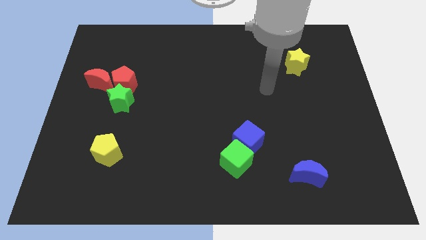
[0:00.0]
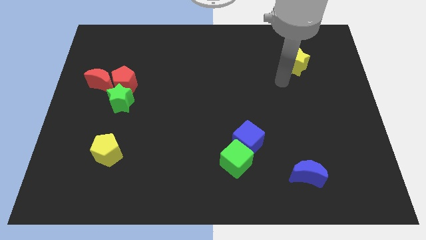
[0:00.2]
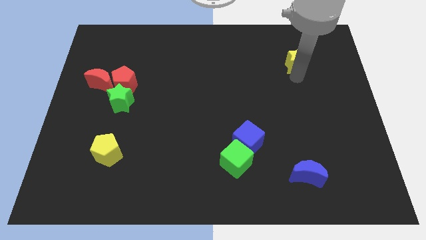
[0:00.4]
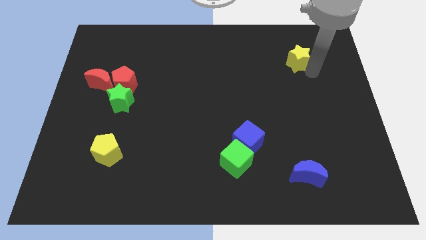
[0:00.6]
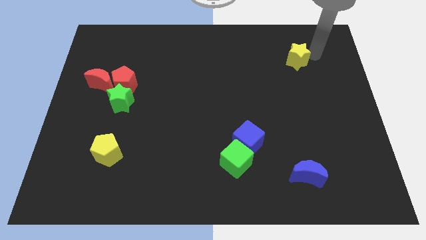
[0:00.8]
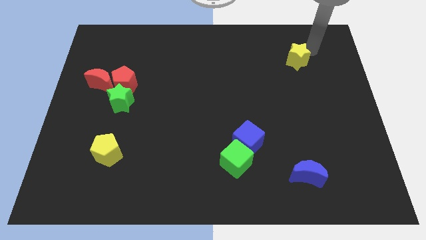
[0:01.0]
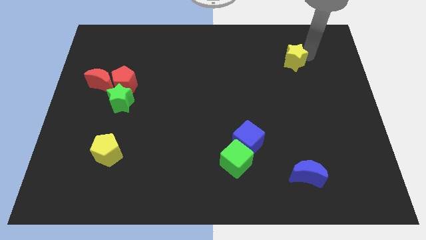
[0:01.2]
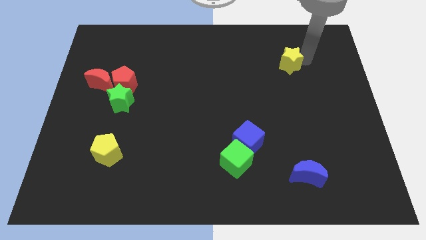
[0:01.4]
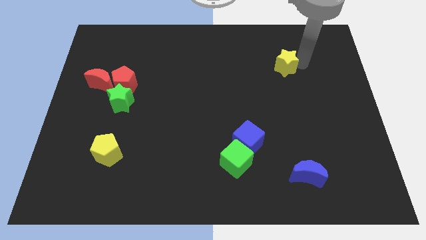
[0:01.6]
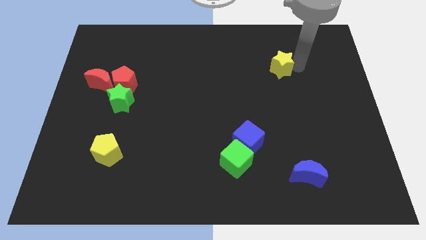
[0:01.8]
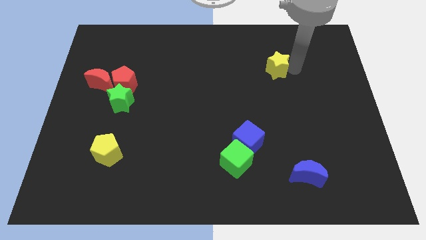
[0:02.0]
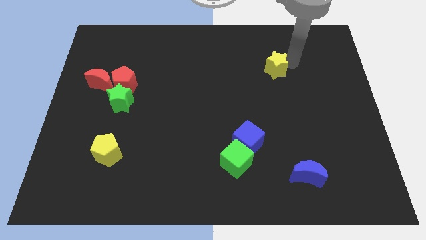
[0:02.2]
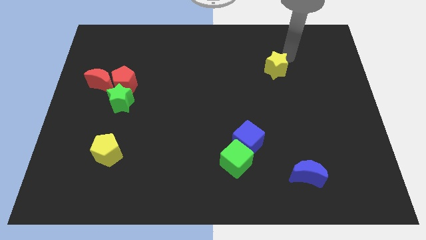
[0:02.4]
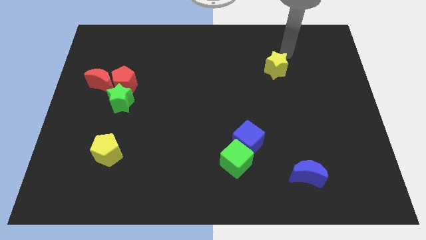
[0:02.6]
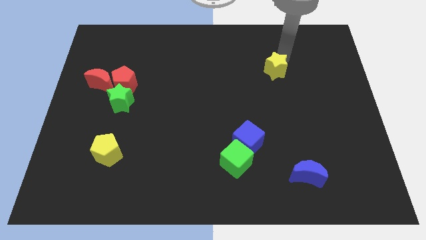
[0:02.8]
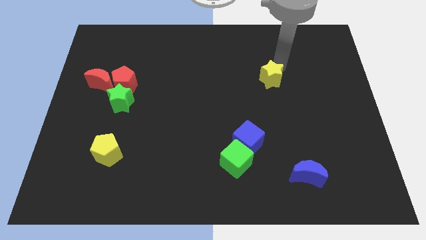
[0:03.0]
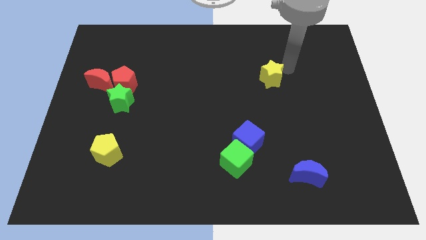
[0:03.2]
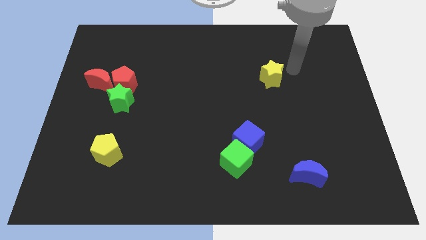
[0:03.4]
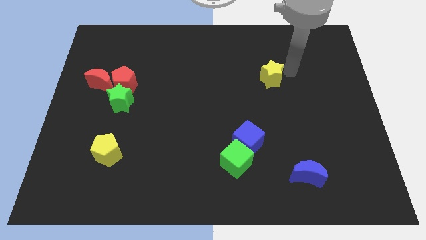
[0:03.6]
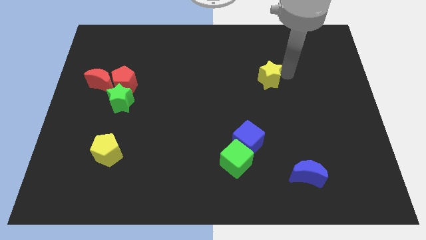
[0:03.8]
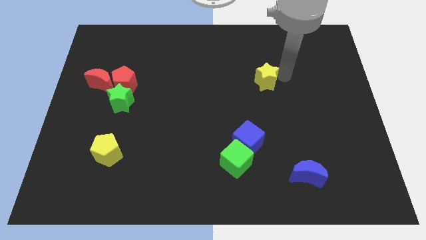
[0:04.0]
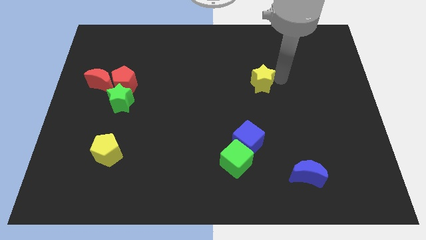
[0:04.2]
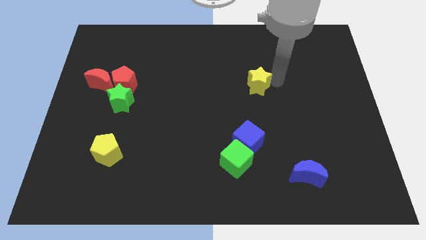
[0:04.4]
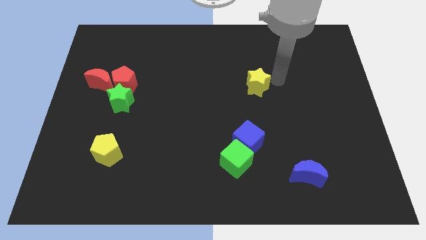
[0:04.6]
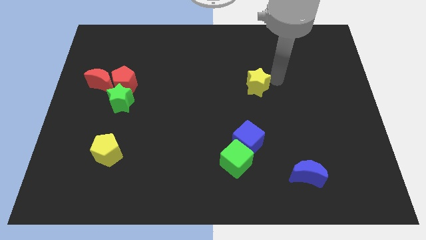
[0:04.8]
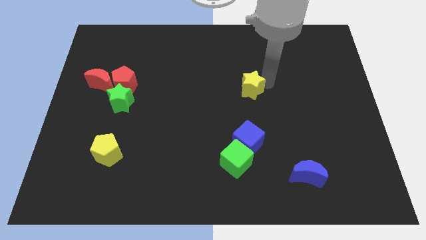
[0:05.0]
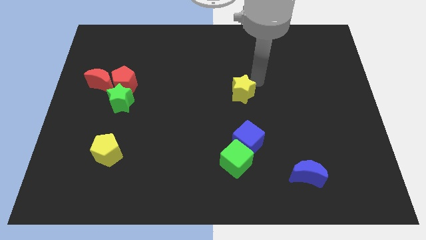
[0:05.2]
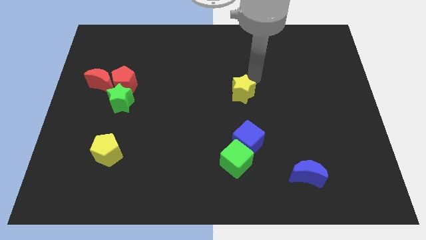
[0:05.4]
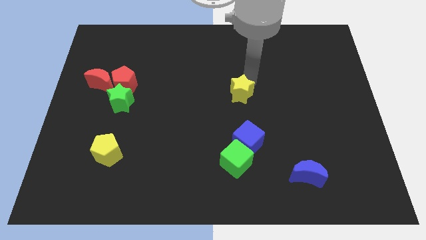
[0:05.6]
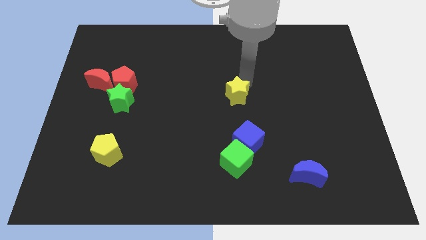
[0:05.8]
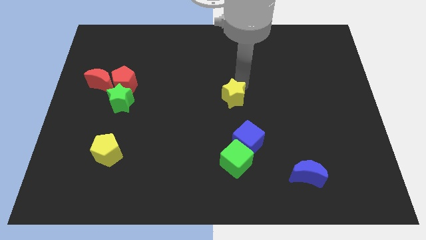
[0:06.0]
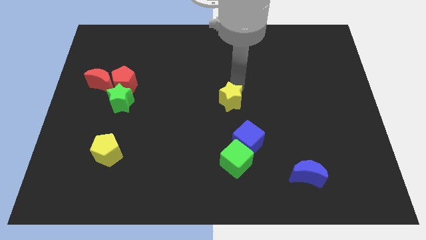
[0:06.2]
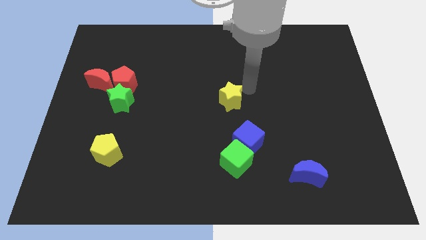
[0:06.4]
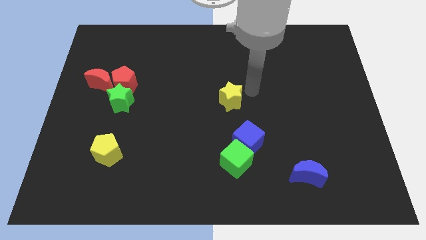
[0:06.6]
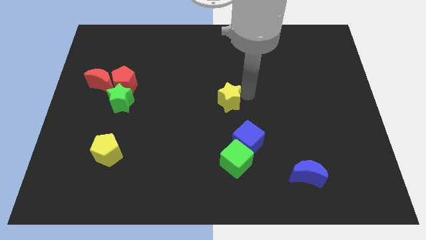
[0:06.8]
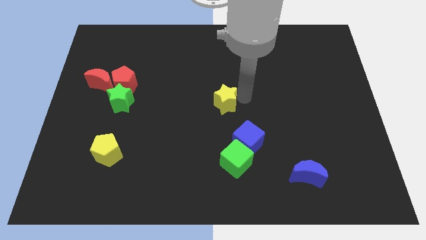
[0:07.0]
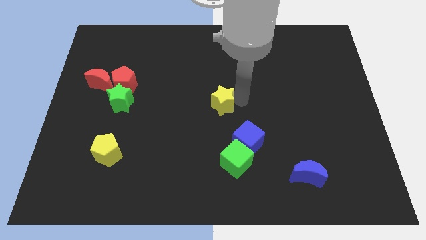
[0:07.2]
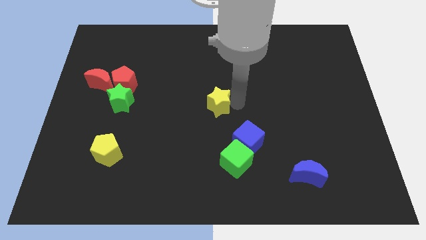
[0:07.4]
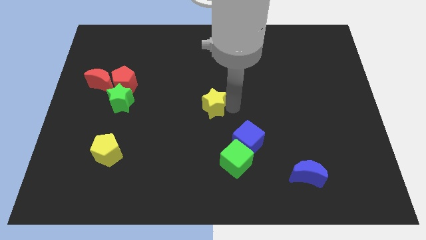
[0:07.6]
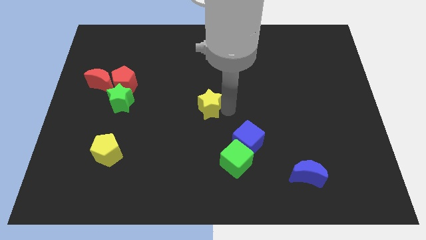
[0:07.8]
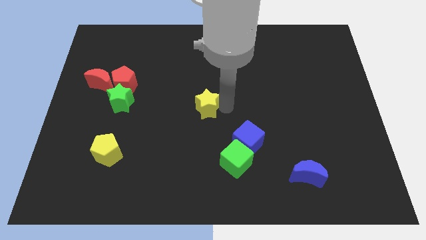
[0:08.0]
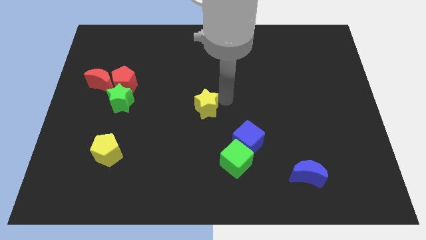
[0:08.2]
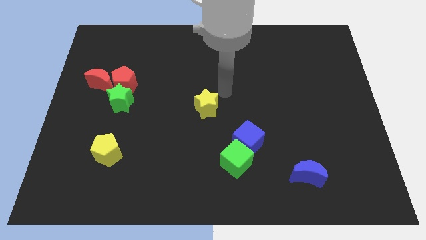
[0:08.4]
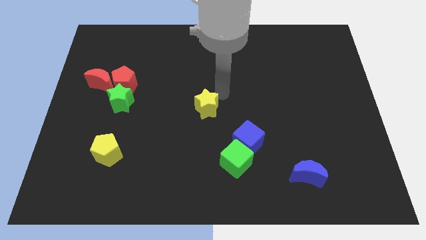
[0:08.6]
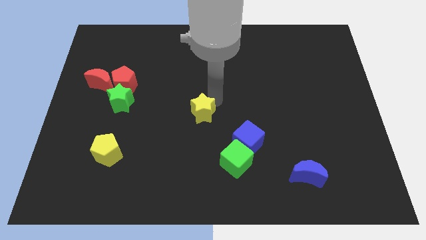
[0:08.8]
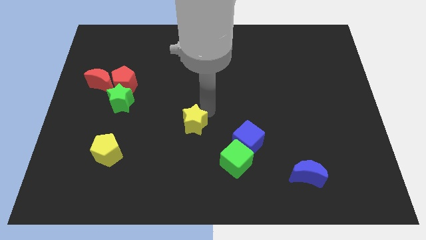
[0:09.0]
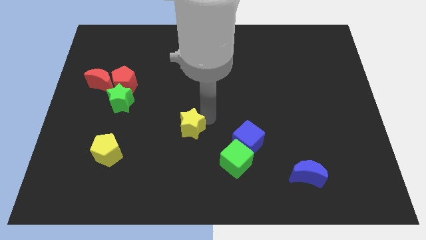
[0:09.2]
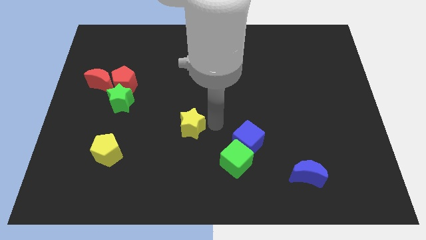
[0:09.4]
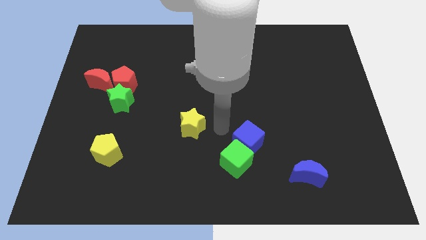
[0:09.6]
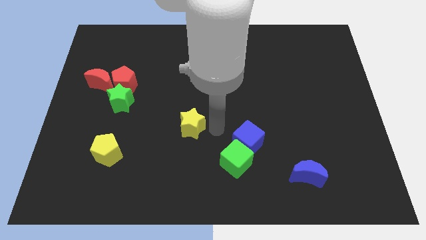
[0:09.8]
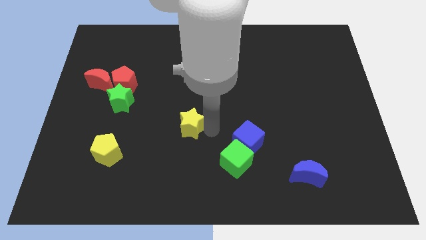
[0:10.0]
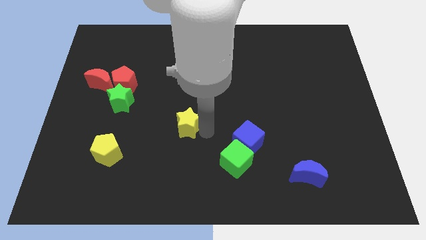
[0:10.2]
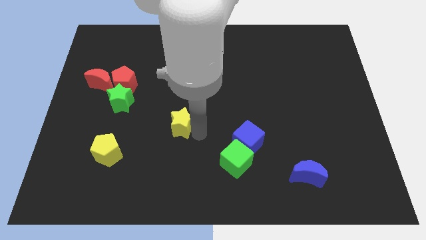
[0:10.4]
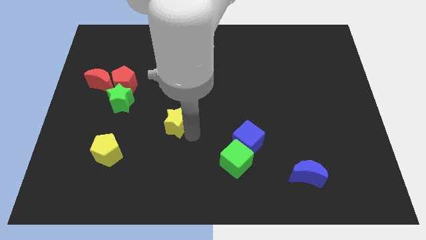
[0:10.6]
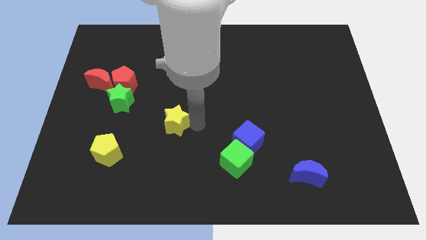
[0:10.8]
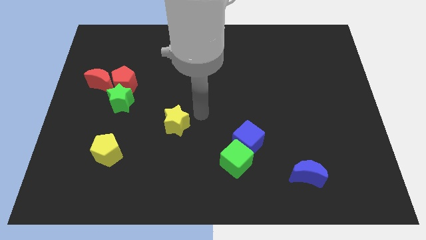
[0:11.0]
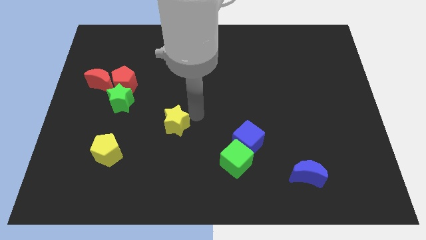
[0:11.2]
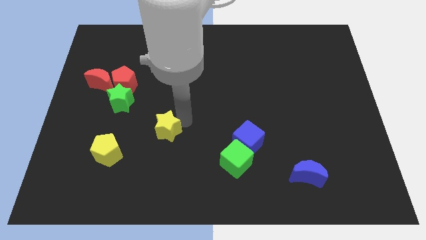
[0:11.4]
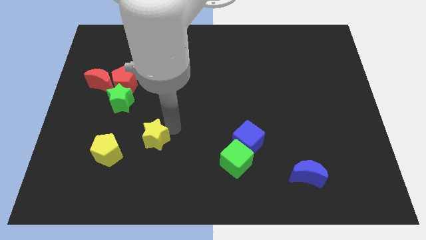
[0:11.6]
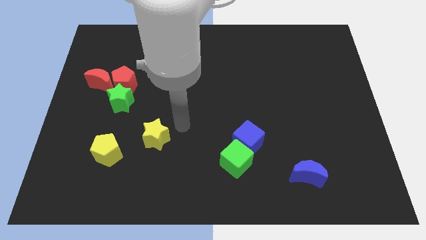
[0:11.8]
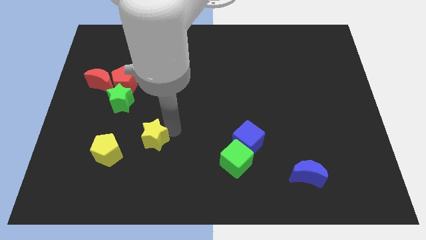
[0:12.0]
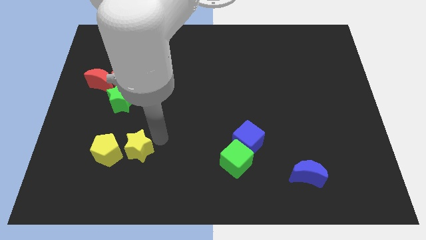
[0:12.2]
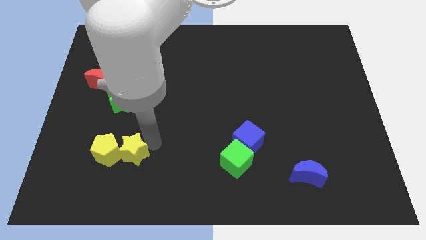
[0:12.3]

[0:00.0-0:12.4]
slide the yellow star next to the yellow pentagon
